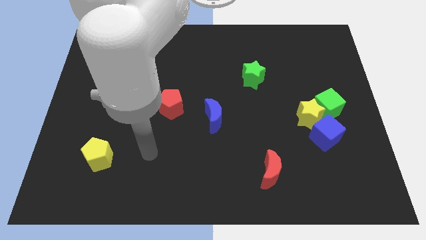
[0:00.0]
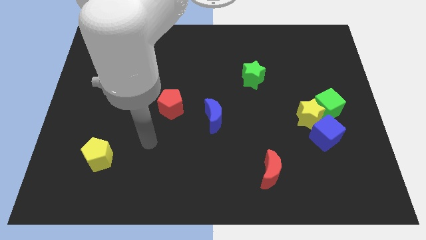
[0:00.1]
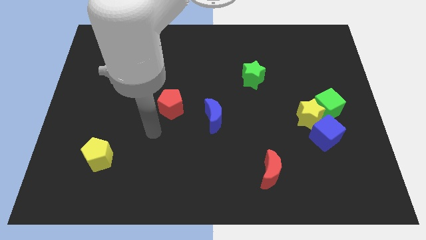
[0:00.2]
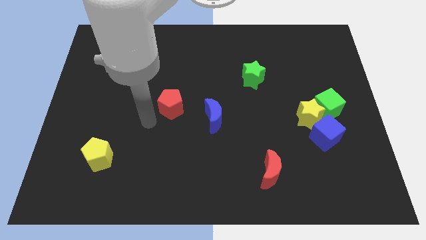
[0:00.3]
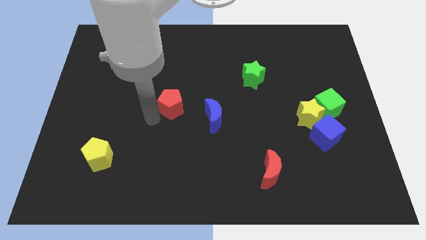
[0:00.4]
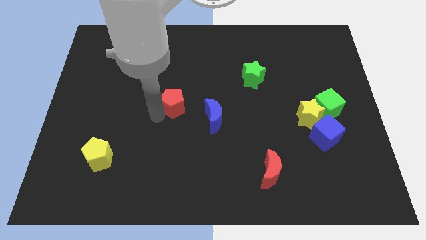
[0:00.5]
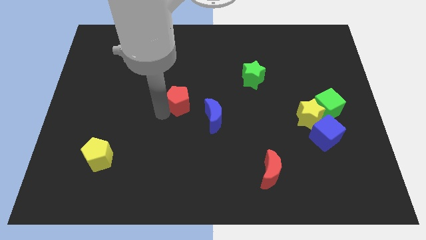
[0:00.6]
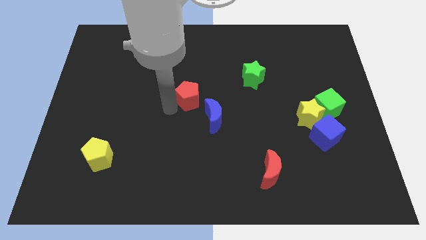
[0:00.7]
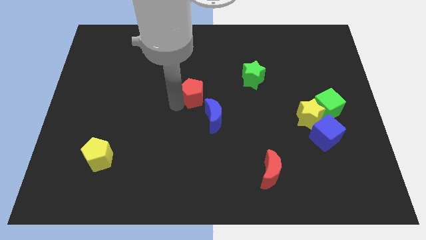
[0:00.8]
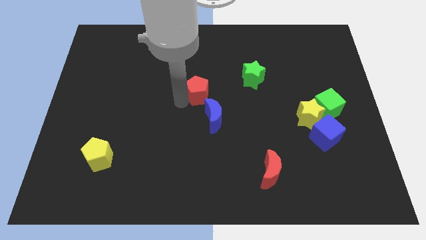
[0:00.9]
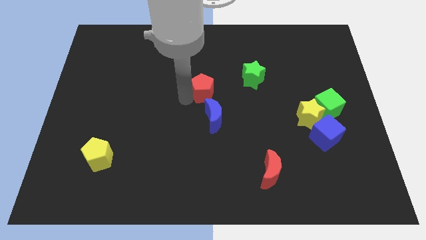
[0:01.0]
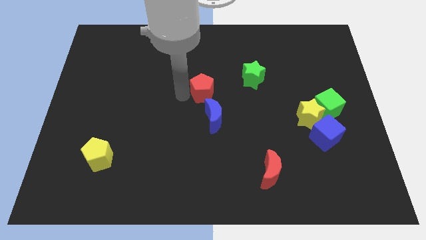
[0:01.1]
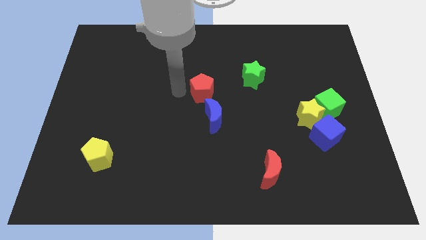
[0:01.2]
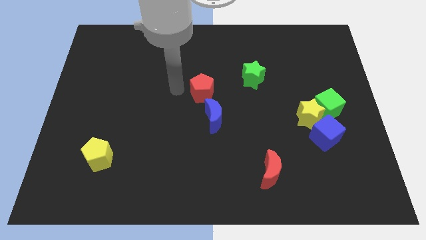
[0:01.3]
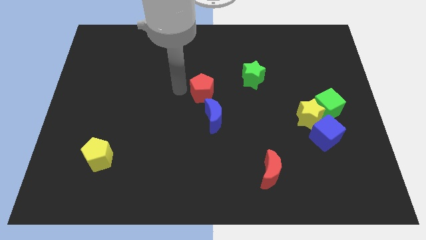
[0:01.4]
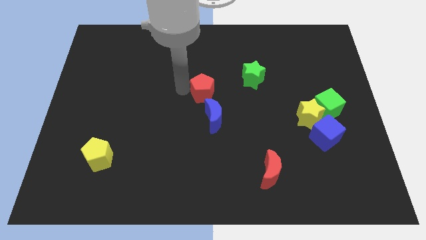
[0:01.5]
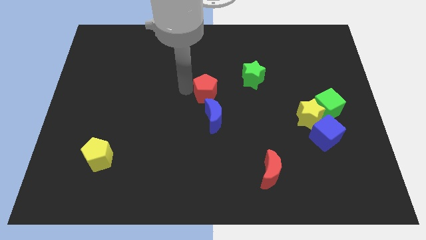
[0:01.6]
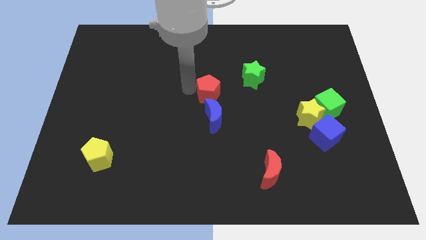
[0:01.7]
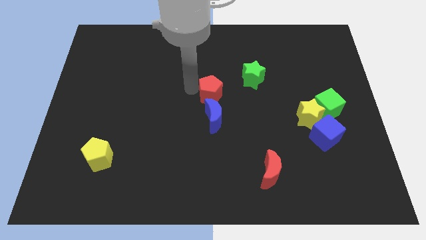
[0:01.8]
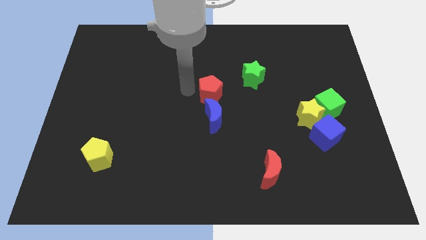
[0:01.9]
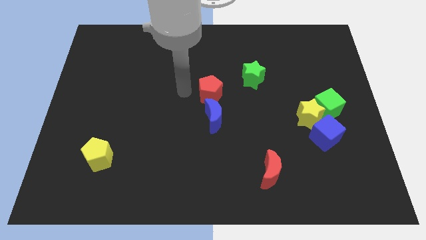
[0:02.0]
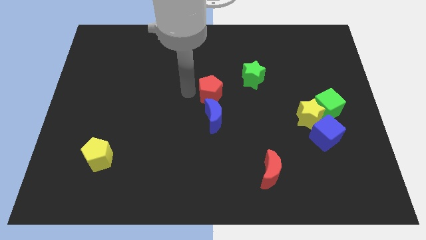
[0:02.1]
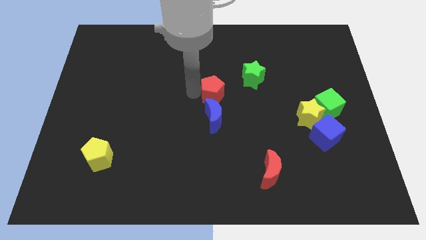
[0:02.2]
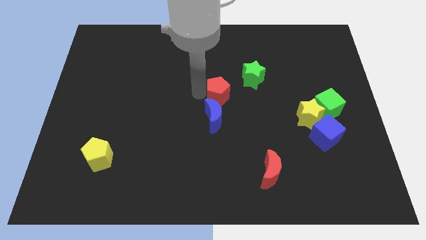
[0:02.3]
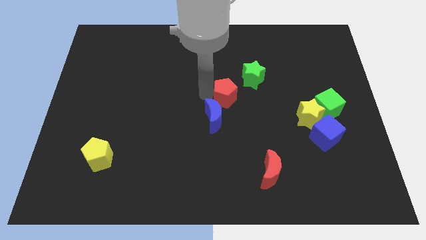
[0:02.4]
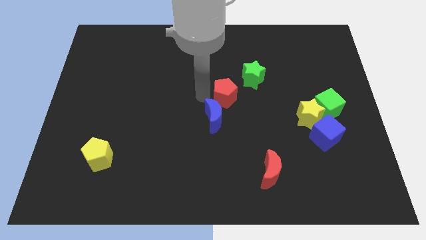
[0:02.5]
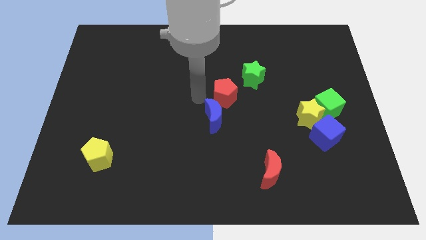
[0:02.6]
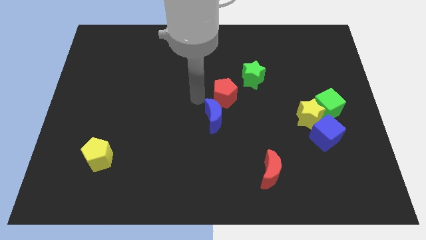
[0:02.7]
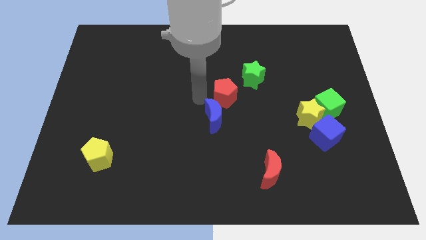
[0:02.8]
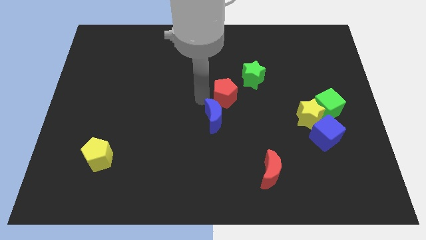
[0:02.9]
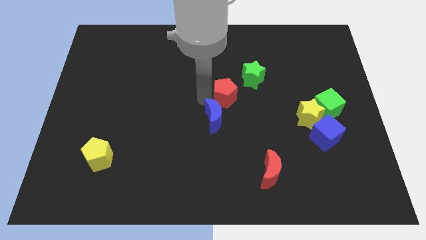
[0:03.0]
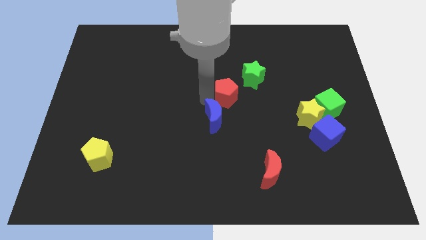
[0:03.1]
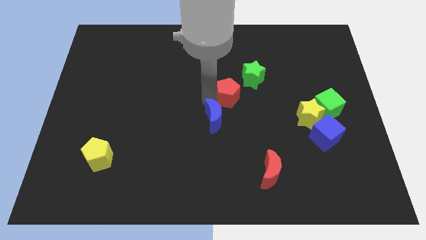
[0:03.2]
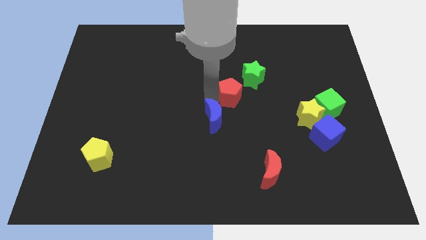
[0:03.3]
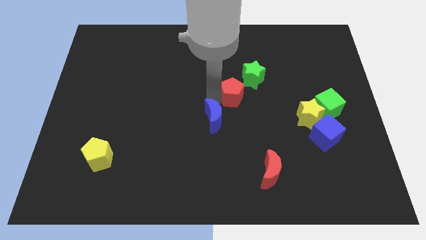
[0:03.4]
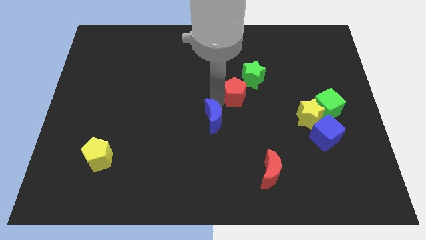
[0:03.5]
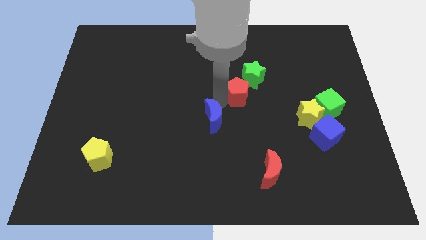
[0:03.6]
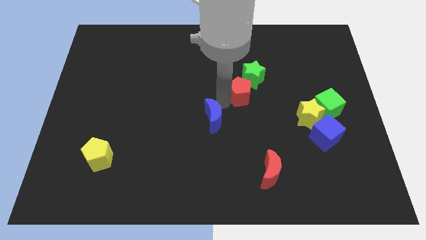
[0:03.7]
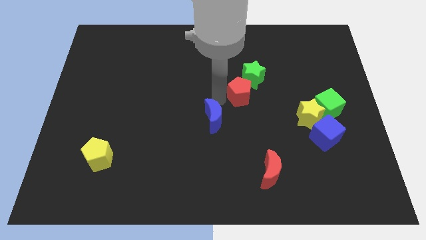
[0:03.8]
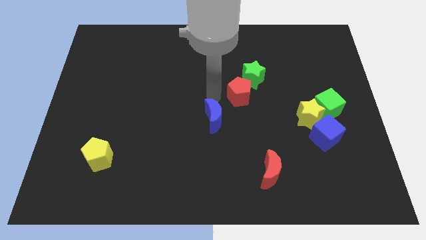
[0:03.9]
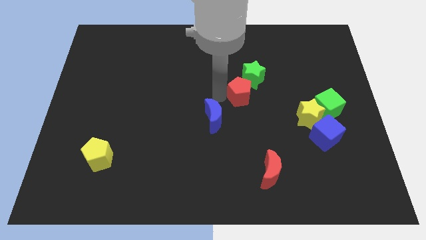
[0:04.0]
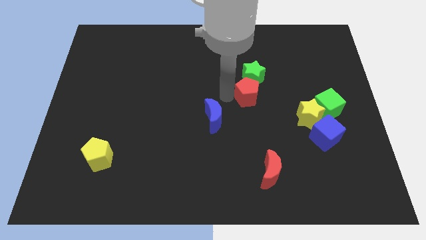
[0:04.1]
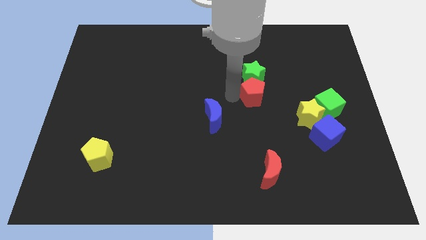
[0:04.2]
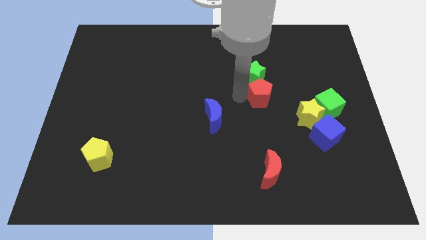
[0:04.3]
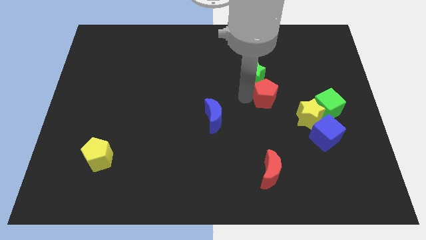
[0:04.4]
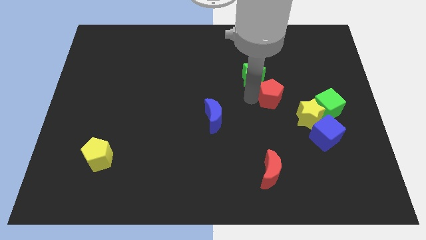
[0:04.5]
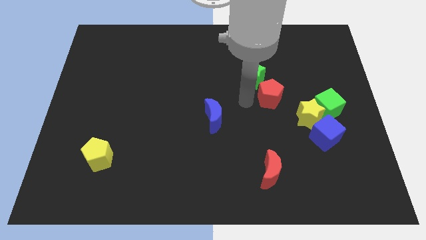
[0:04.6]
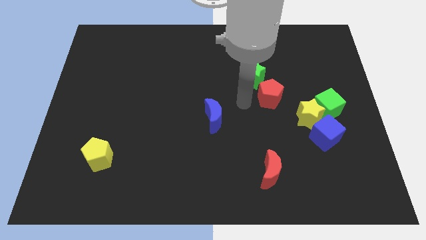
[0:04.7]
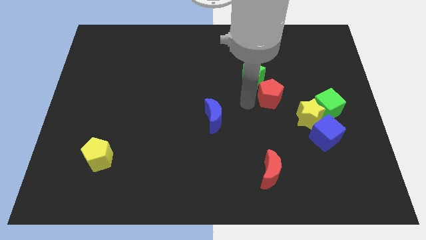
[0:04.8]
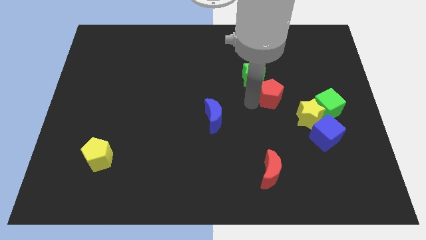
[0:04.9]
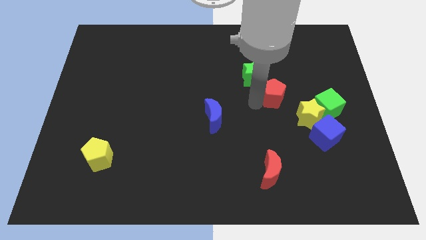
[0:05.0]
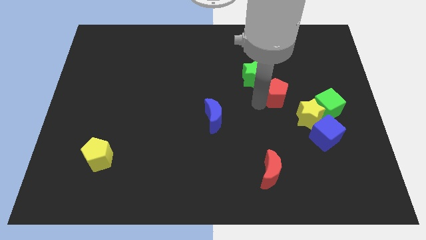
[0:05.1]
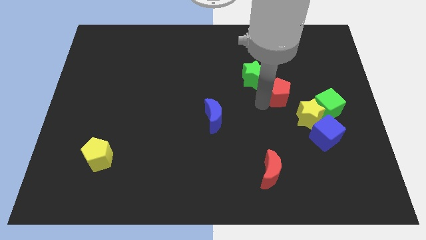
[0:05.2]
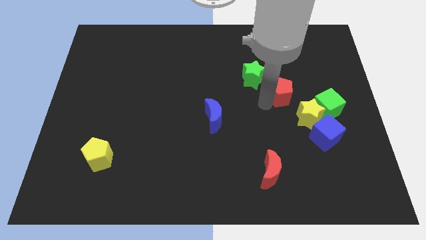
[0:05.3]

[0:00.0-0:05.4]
slide the red pentagon to the top left side of the green cube

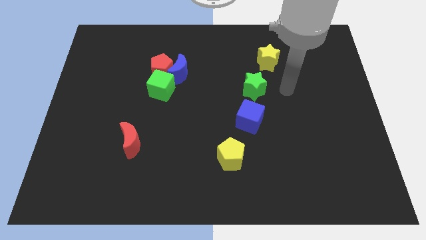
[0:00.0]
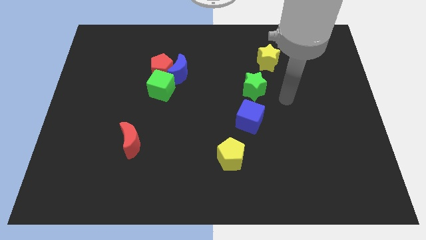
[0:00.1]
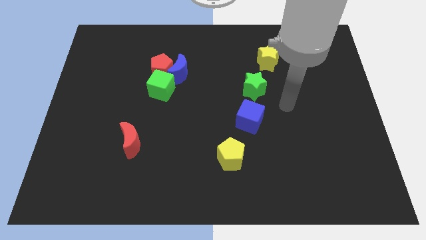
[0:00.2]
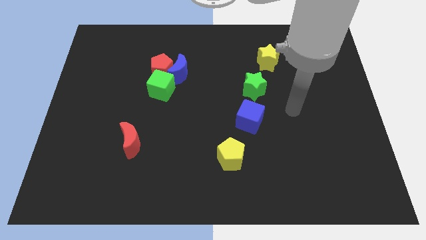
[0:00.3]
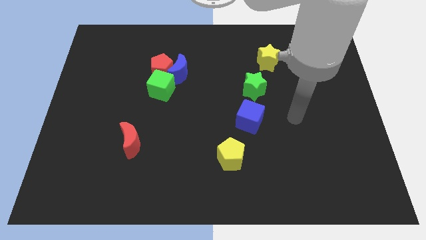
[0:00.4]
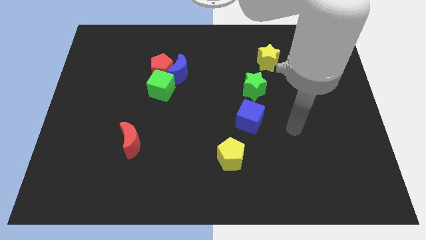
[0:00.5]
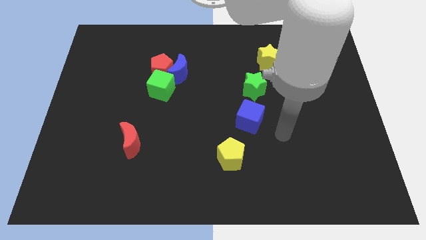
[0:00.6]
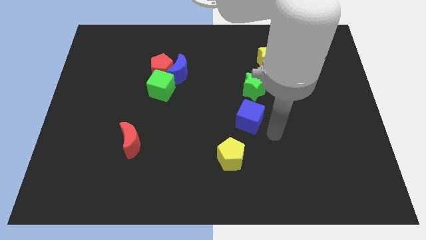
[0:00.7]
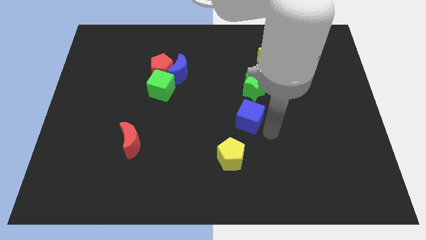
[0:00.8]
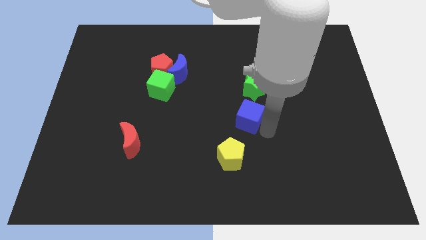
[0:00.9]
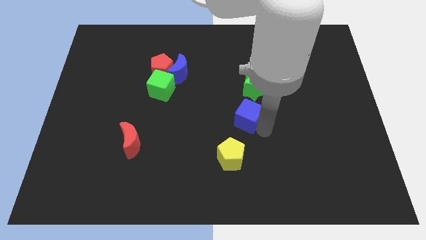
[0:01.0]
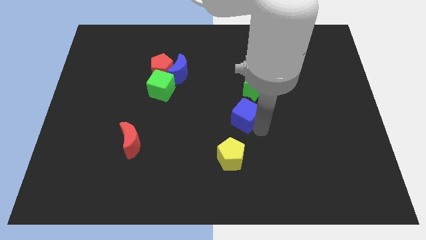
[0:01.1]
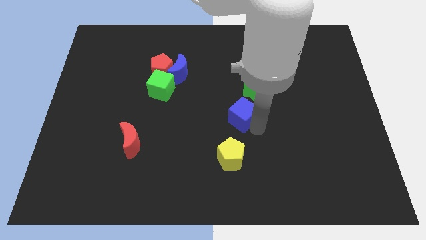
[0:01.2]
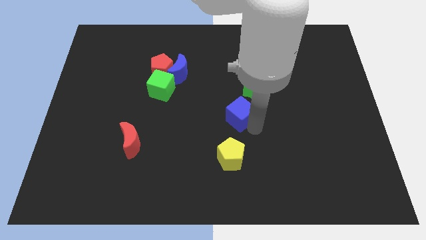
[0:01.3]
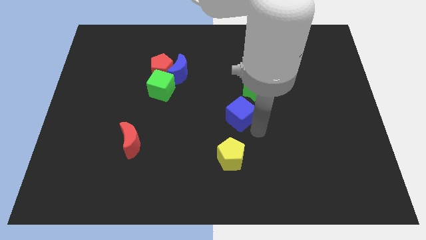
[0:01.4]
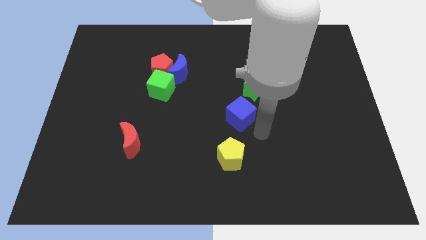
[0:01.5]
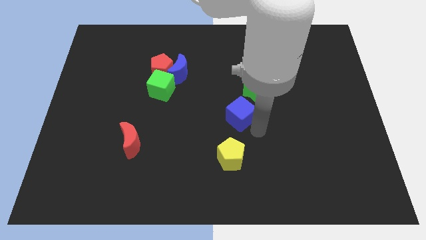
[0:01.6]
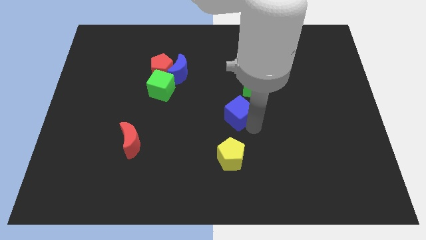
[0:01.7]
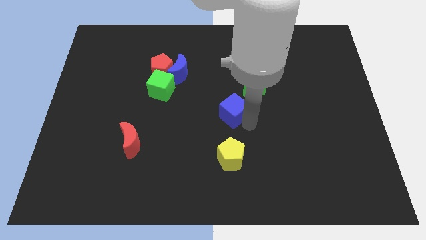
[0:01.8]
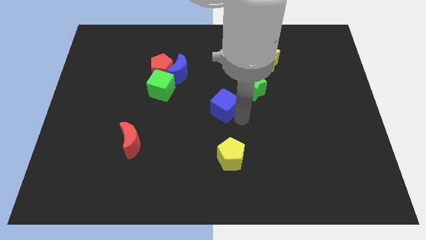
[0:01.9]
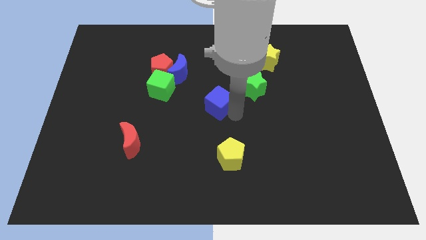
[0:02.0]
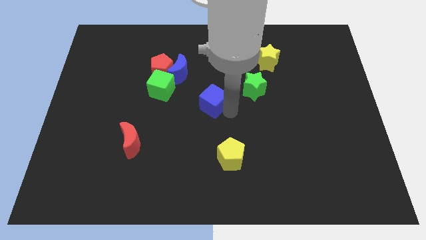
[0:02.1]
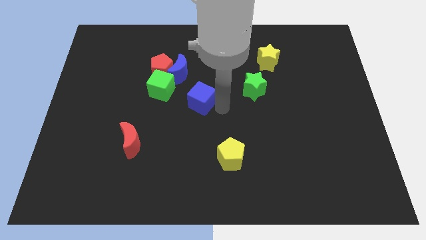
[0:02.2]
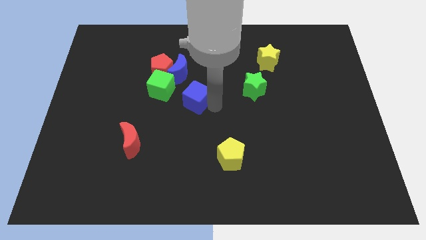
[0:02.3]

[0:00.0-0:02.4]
move the blue cube diagonally down and to the right of the red pentagon
